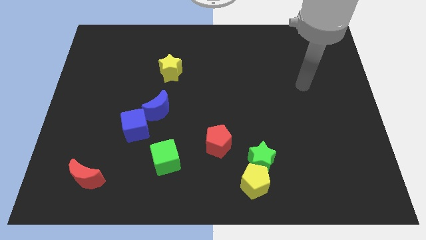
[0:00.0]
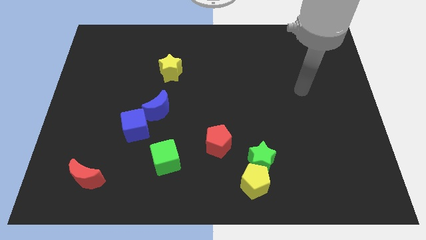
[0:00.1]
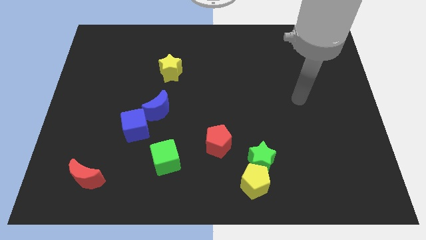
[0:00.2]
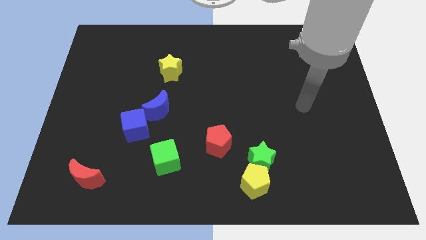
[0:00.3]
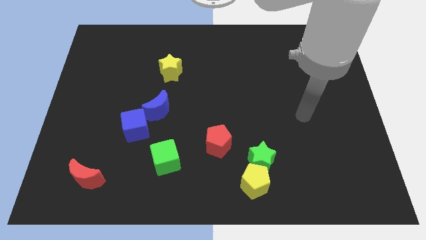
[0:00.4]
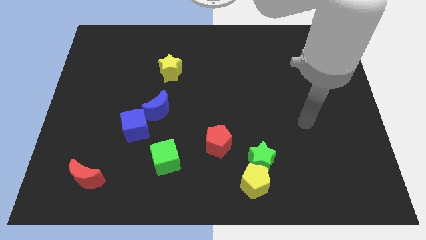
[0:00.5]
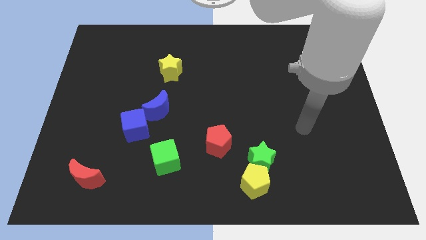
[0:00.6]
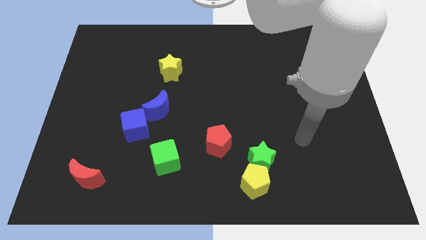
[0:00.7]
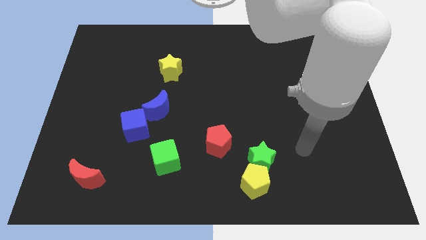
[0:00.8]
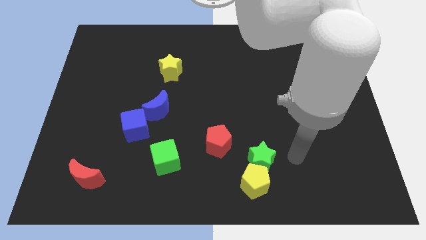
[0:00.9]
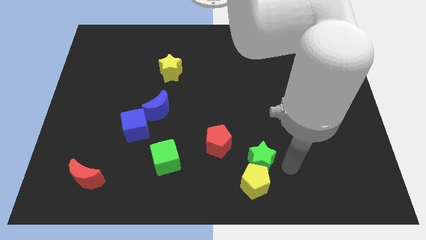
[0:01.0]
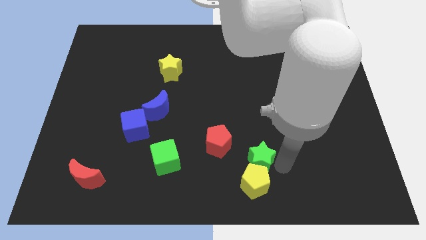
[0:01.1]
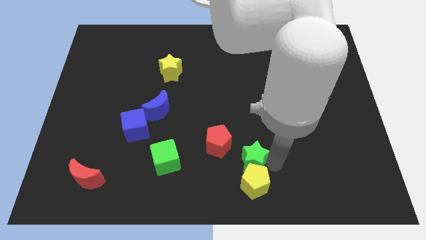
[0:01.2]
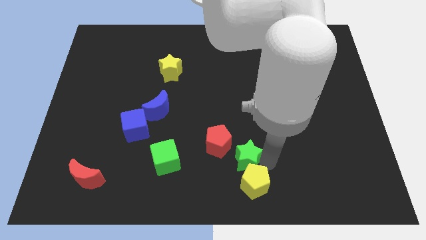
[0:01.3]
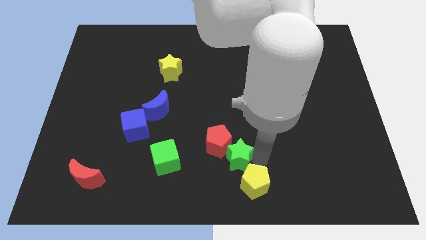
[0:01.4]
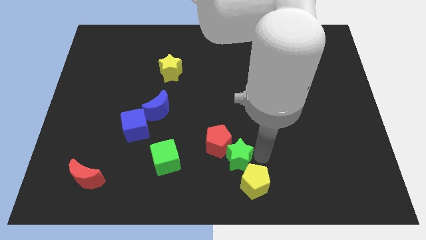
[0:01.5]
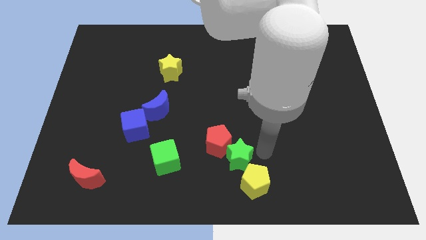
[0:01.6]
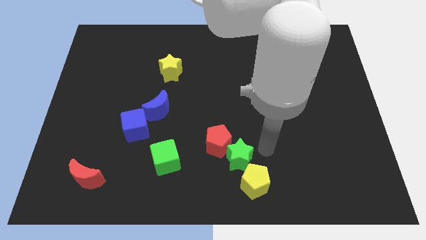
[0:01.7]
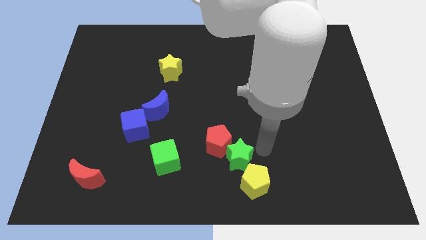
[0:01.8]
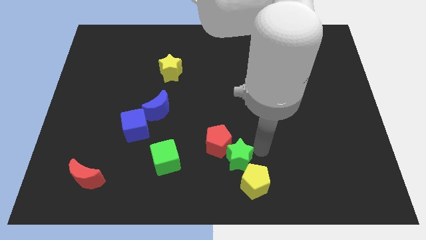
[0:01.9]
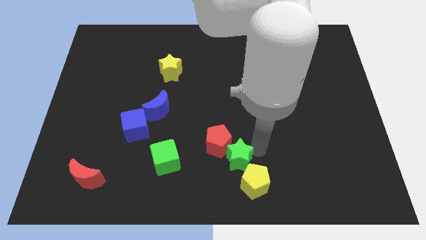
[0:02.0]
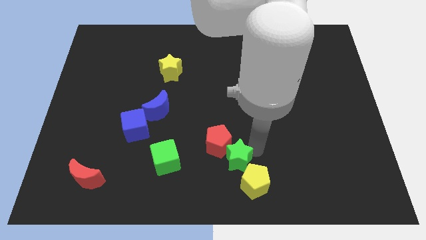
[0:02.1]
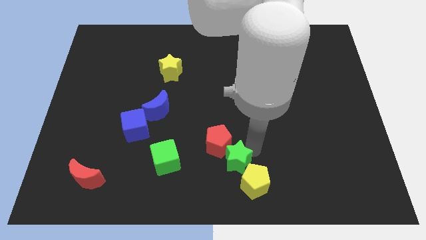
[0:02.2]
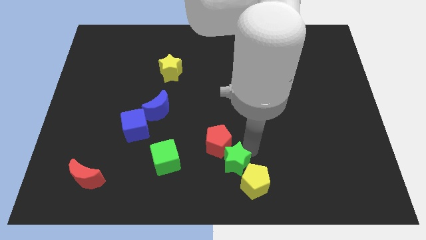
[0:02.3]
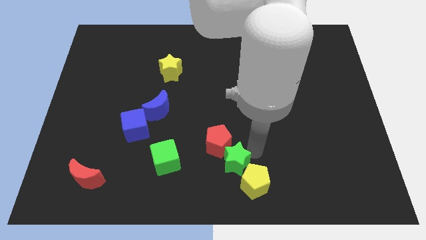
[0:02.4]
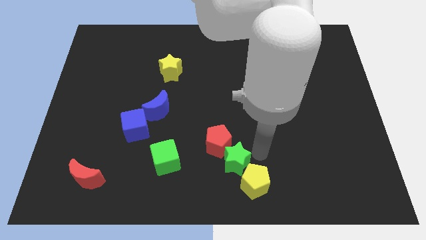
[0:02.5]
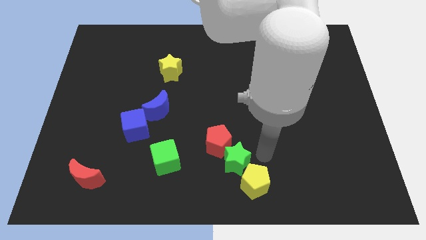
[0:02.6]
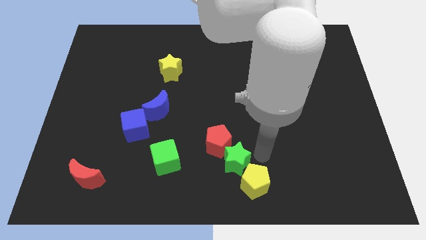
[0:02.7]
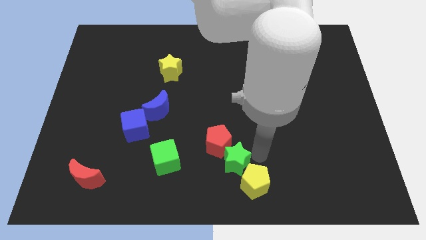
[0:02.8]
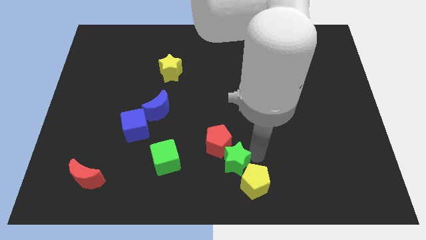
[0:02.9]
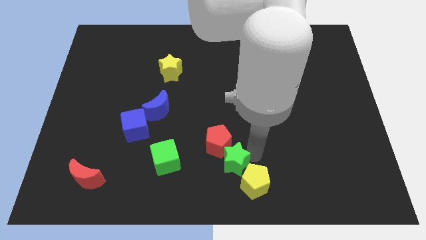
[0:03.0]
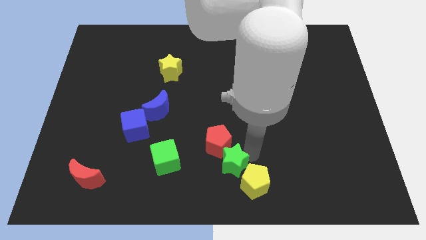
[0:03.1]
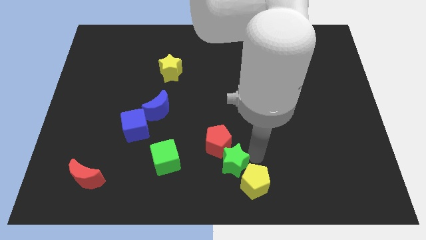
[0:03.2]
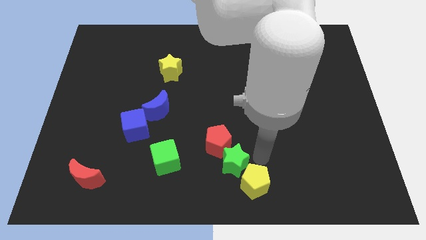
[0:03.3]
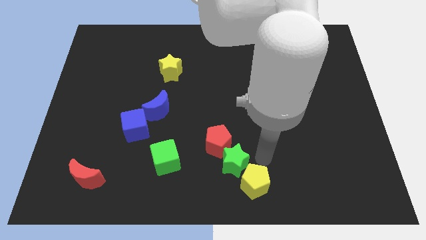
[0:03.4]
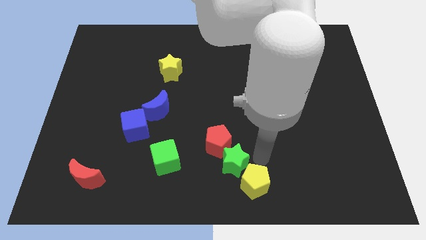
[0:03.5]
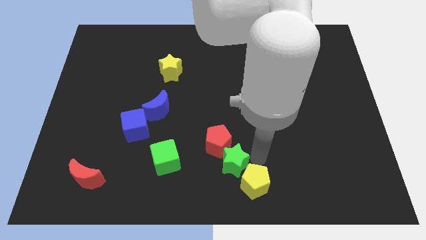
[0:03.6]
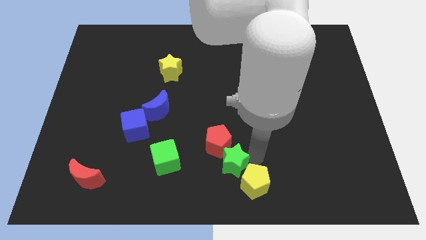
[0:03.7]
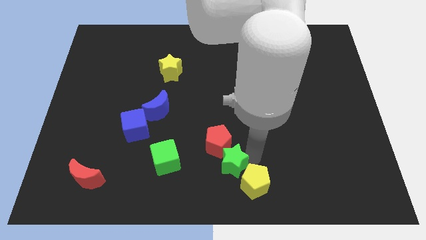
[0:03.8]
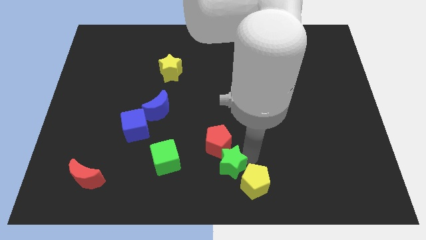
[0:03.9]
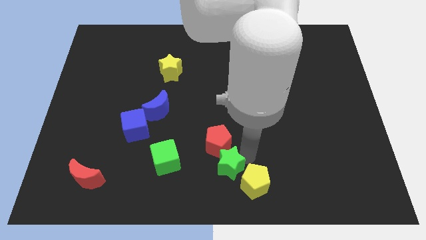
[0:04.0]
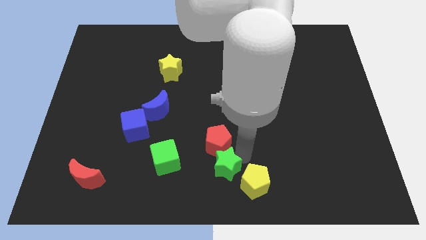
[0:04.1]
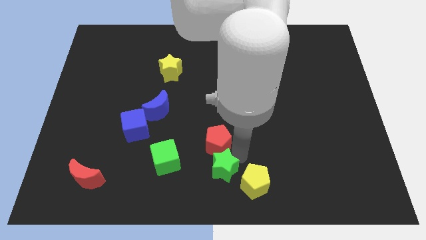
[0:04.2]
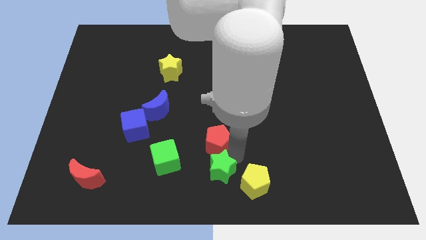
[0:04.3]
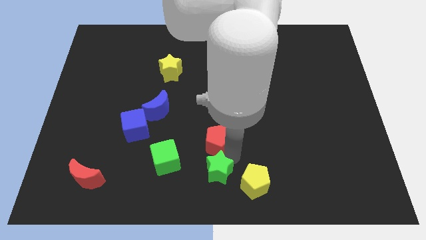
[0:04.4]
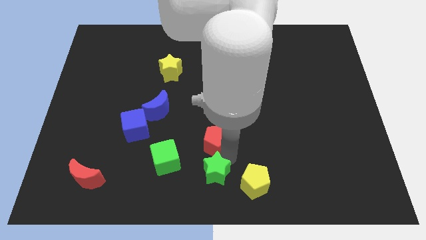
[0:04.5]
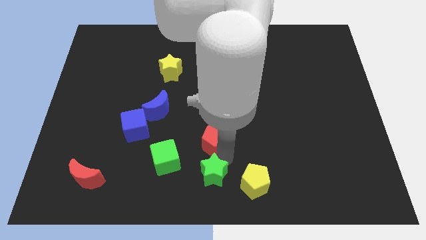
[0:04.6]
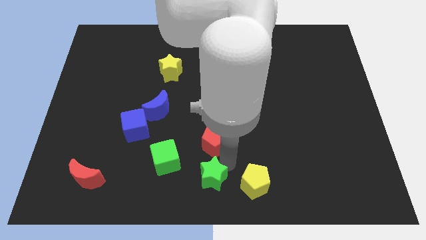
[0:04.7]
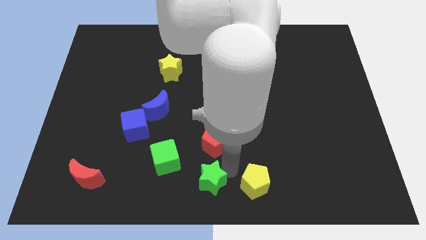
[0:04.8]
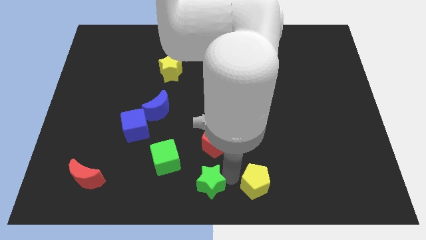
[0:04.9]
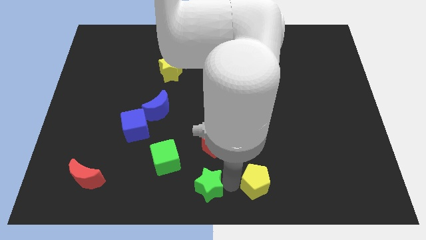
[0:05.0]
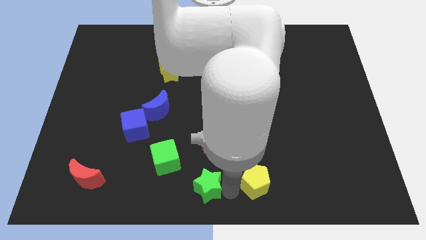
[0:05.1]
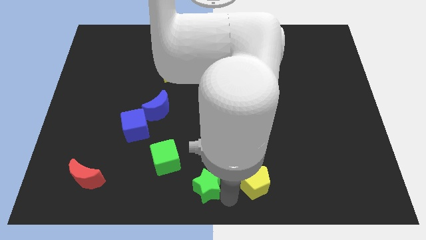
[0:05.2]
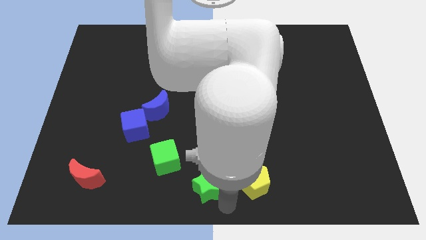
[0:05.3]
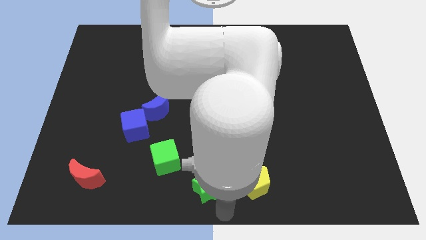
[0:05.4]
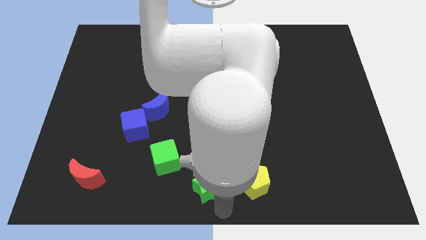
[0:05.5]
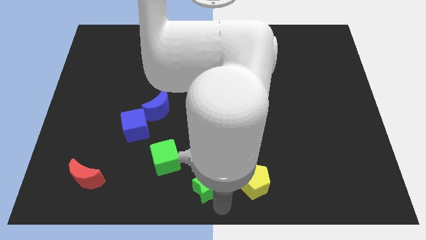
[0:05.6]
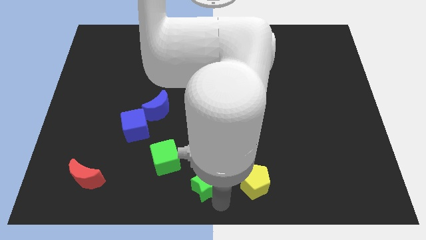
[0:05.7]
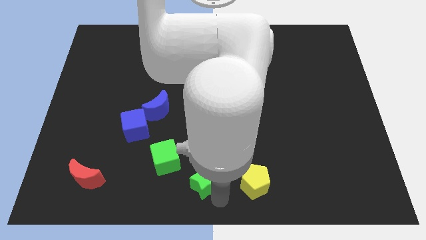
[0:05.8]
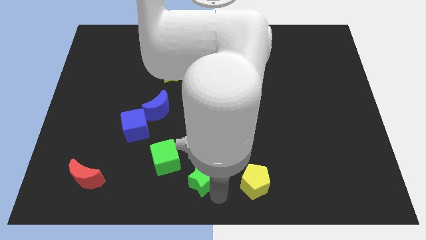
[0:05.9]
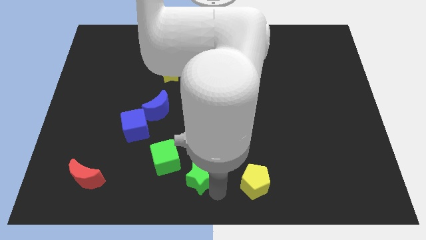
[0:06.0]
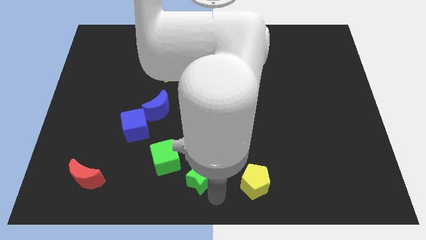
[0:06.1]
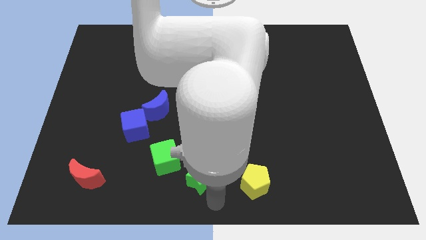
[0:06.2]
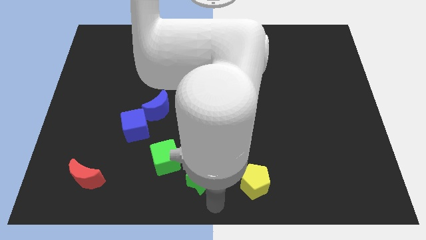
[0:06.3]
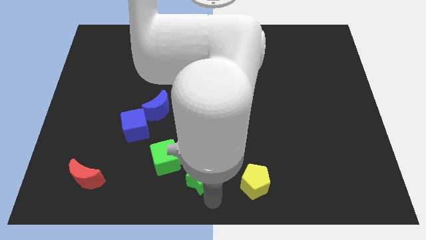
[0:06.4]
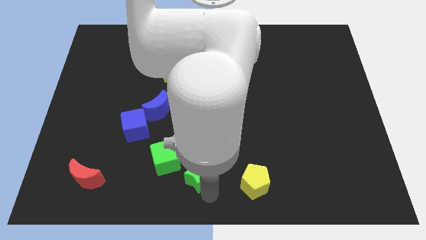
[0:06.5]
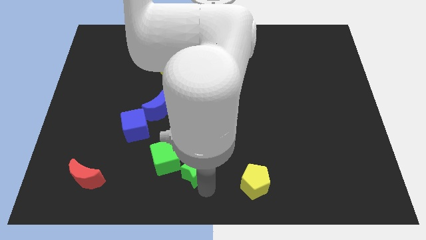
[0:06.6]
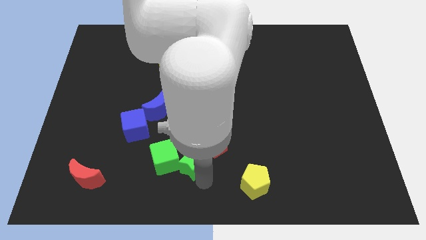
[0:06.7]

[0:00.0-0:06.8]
push the green star to the green cube
